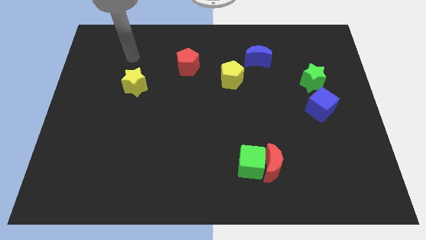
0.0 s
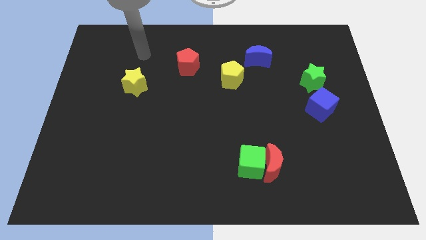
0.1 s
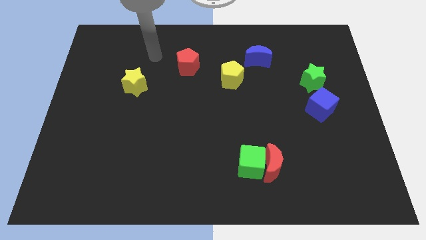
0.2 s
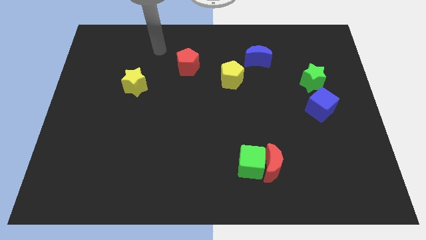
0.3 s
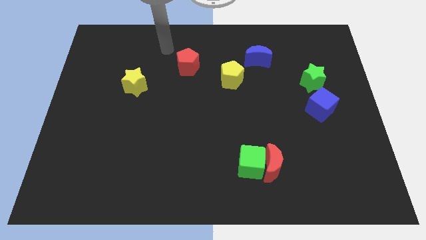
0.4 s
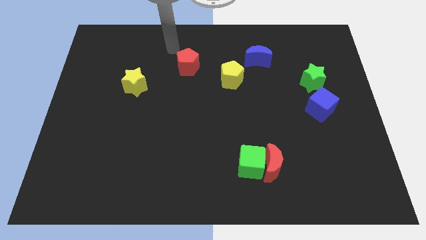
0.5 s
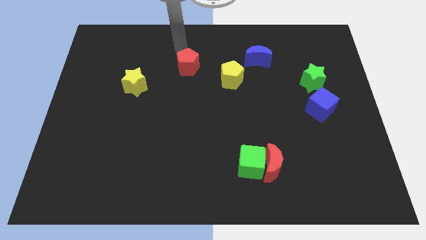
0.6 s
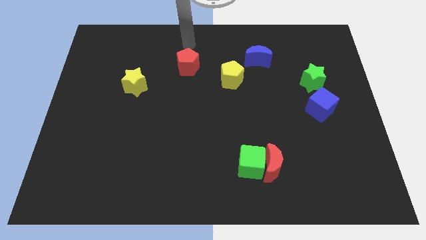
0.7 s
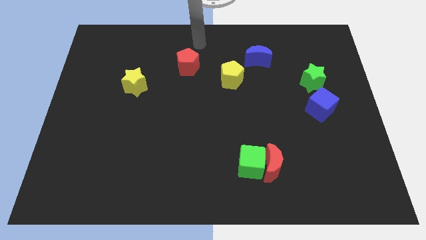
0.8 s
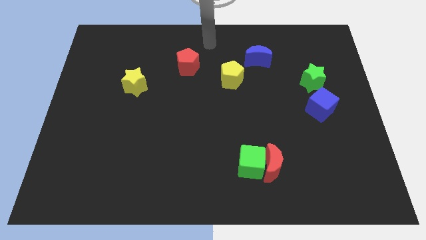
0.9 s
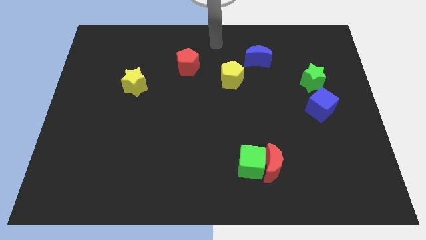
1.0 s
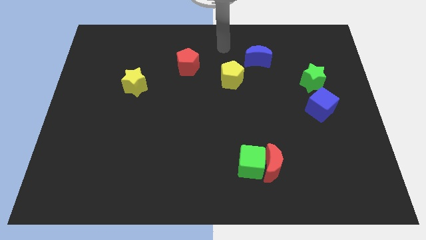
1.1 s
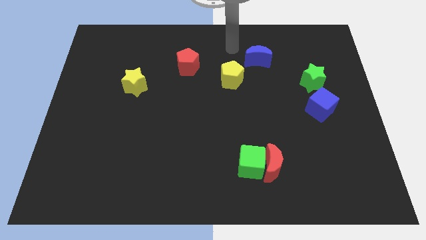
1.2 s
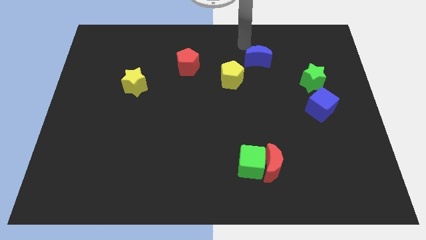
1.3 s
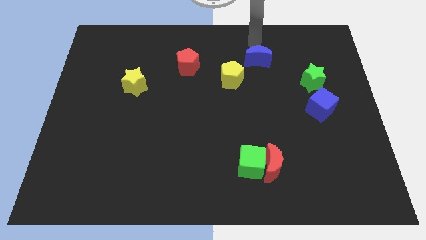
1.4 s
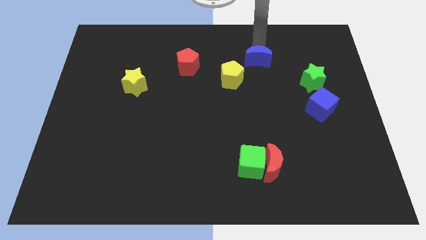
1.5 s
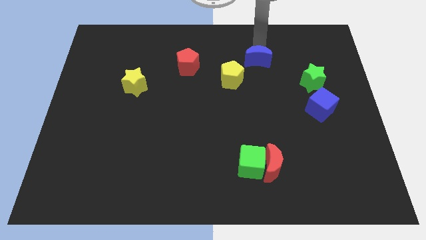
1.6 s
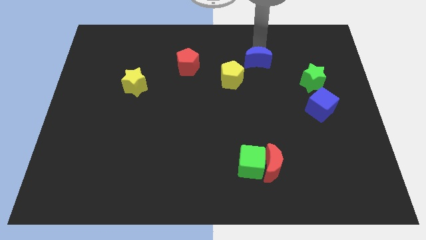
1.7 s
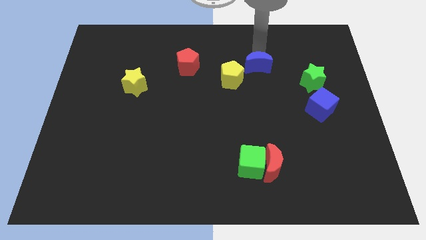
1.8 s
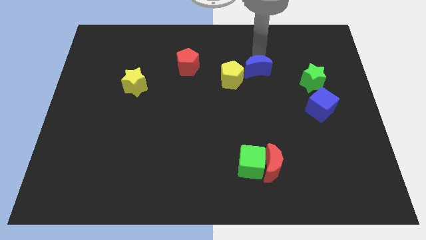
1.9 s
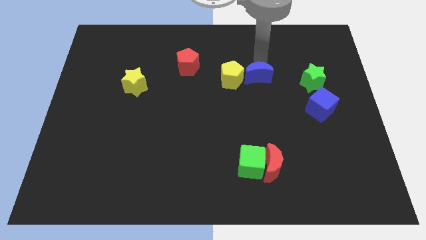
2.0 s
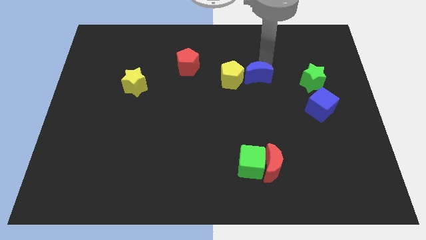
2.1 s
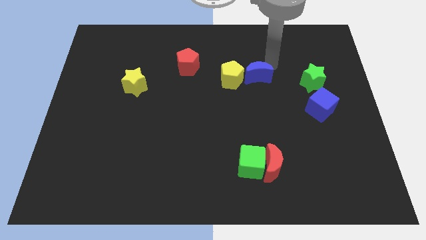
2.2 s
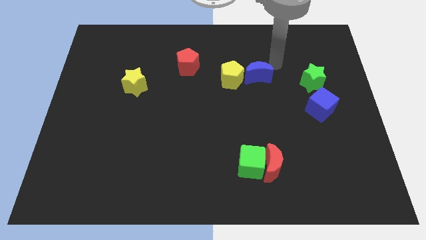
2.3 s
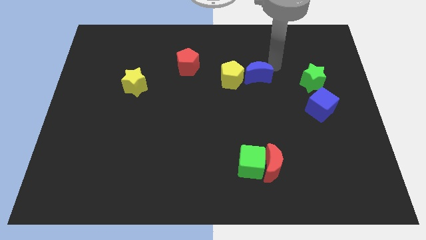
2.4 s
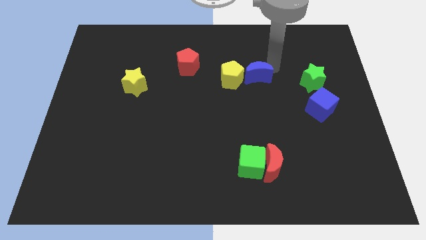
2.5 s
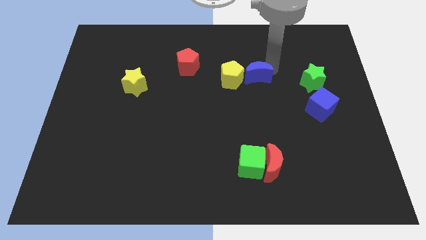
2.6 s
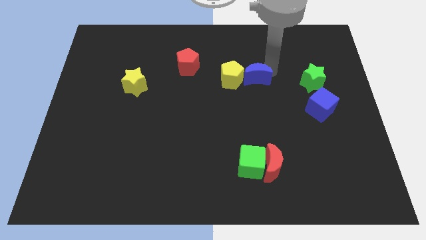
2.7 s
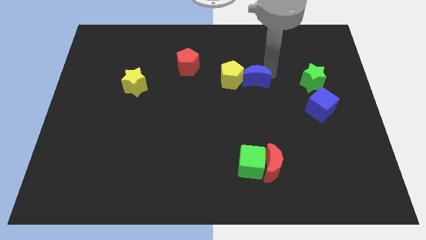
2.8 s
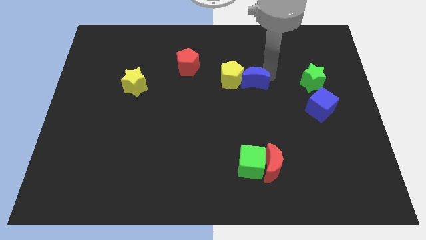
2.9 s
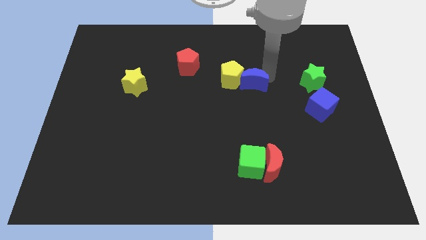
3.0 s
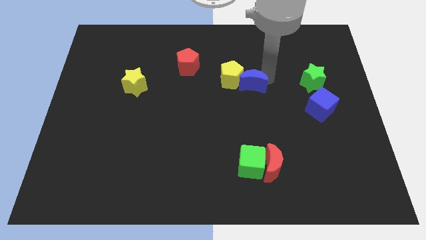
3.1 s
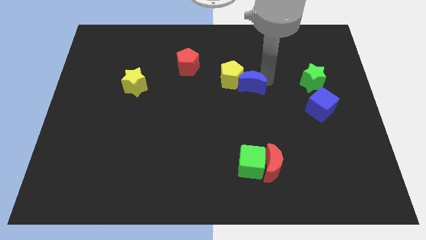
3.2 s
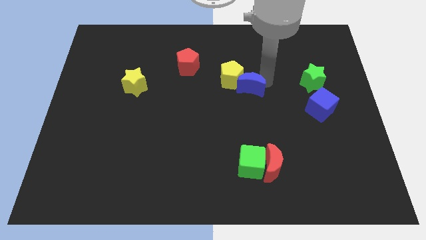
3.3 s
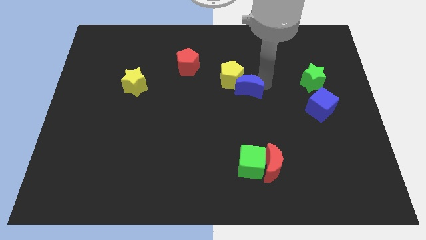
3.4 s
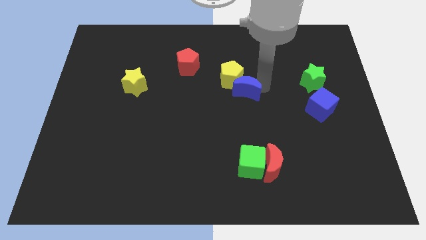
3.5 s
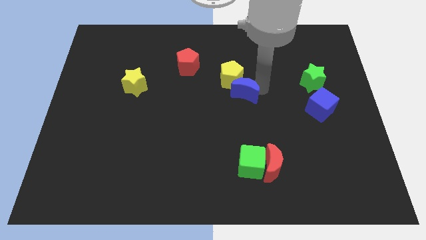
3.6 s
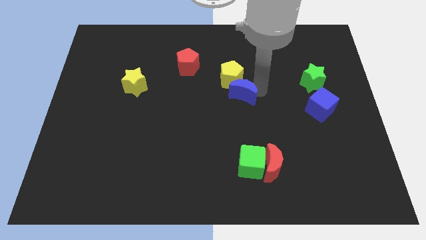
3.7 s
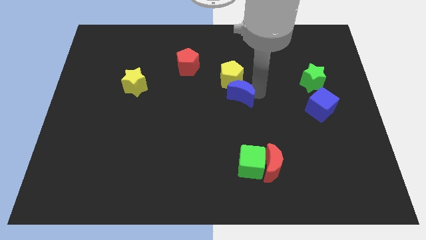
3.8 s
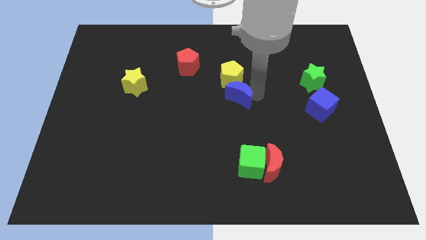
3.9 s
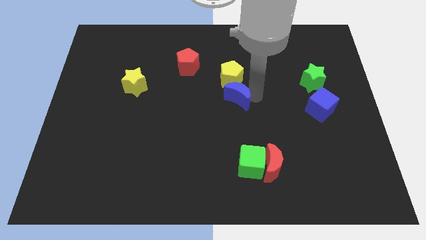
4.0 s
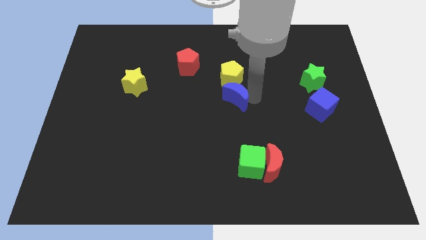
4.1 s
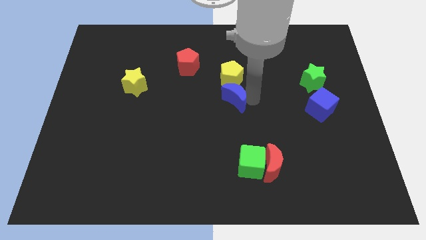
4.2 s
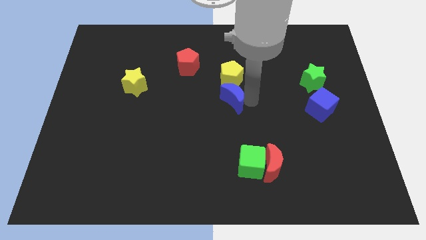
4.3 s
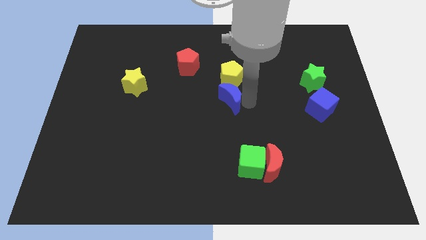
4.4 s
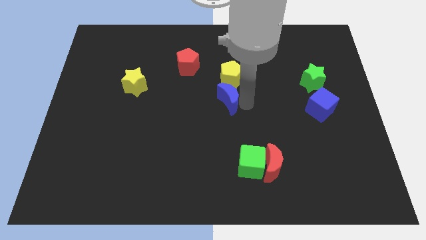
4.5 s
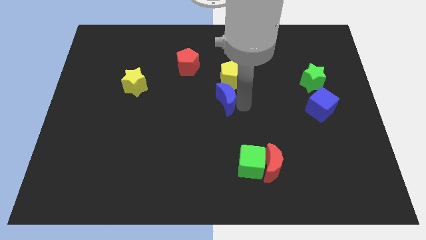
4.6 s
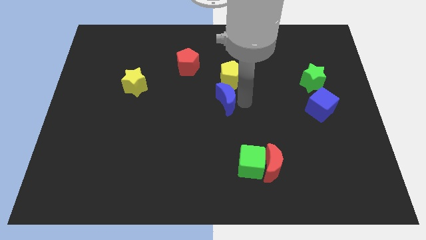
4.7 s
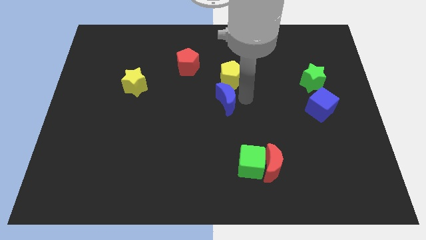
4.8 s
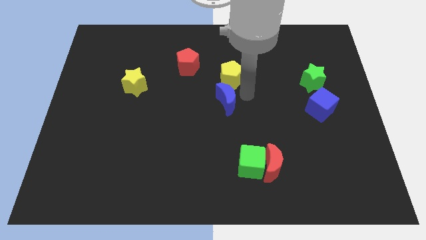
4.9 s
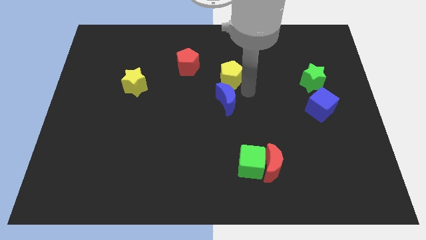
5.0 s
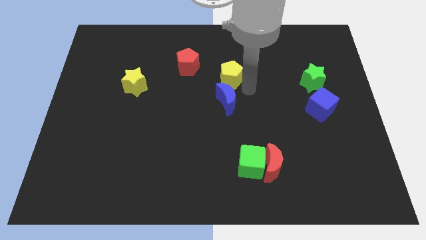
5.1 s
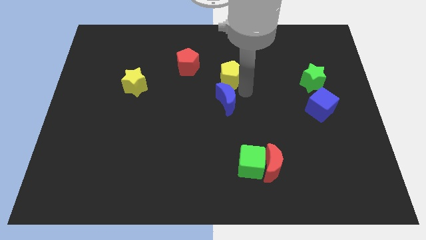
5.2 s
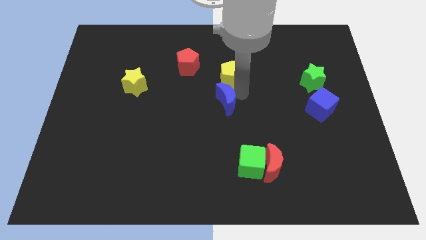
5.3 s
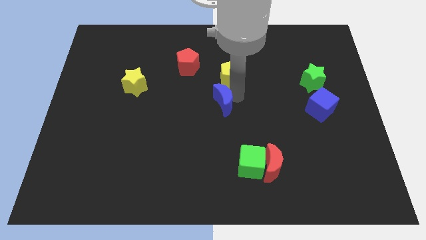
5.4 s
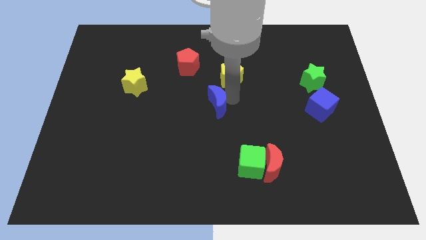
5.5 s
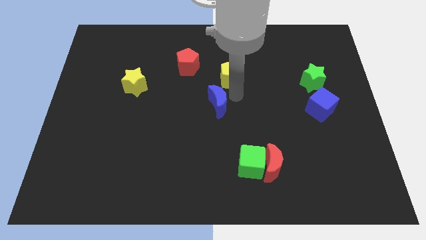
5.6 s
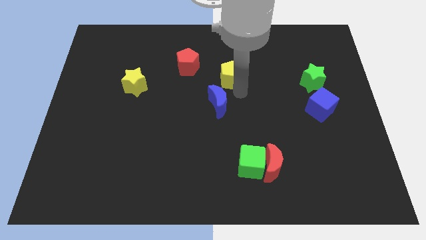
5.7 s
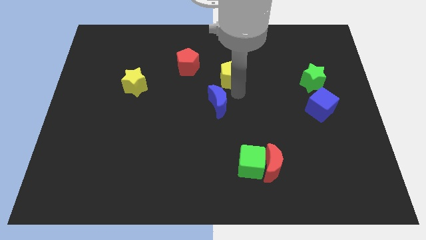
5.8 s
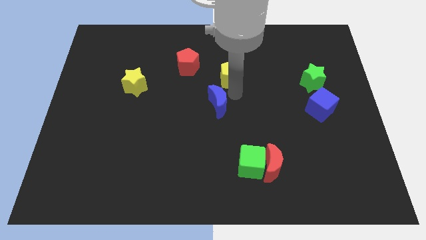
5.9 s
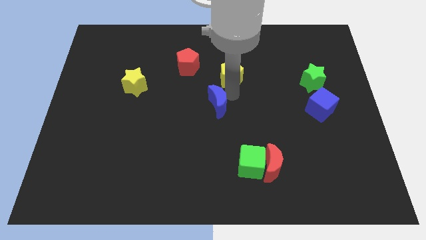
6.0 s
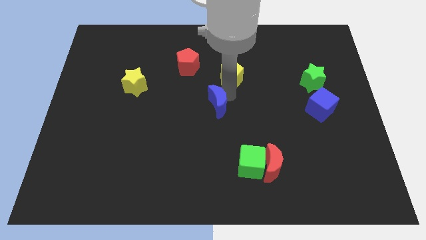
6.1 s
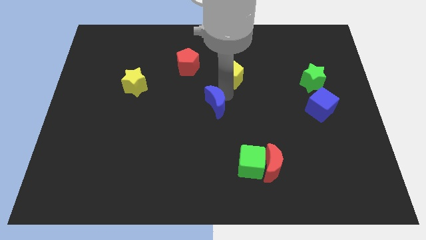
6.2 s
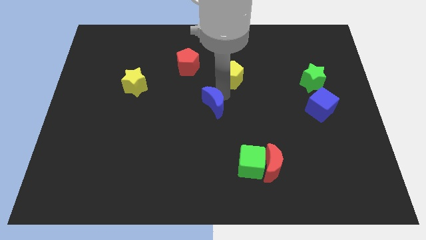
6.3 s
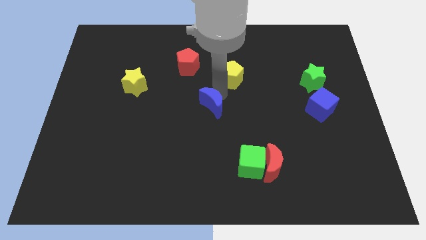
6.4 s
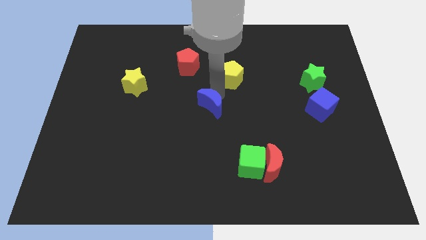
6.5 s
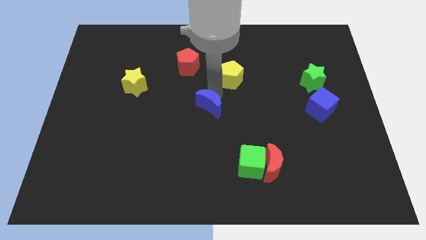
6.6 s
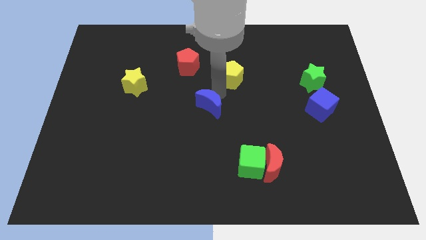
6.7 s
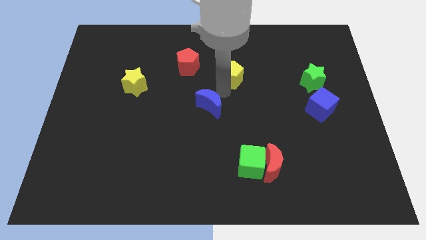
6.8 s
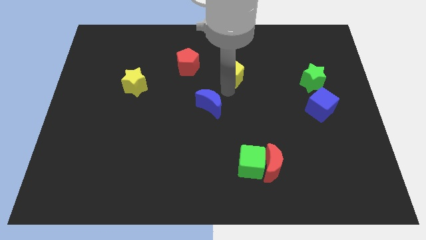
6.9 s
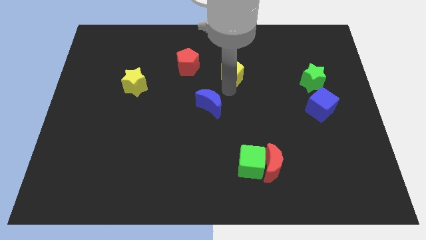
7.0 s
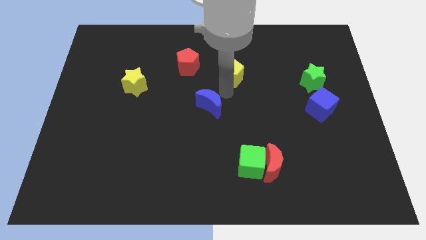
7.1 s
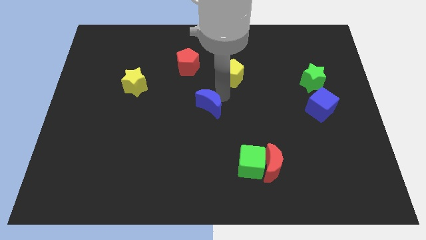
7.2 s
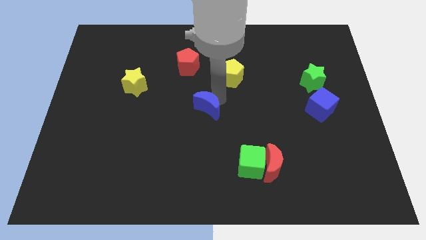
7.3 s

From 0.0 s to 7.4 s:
push the blue moon diagonally down and to the left

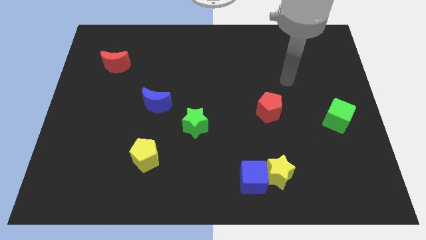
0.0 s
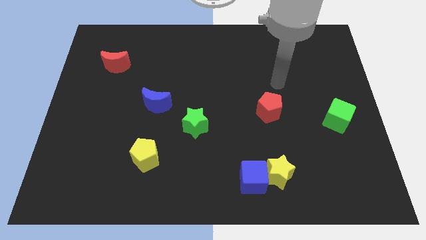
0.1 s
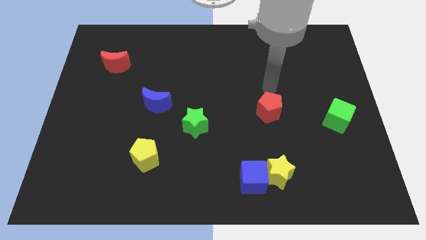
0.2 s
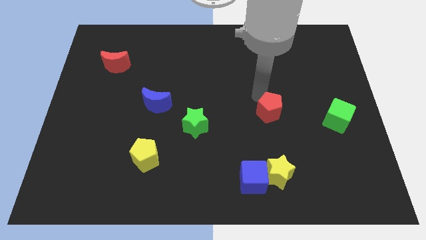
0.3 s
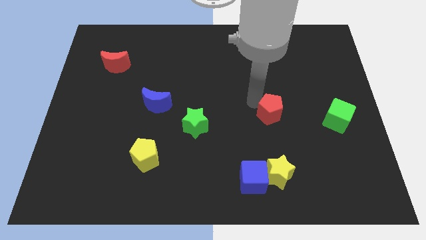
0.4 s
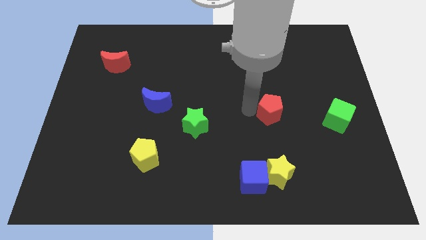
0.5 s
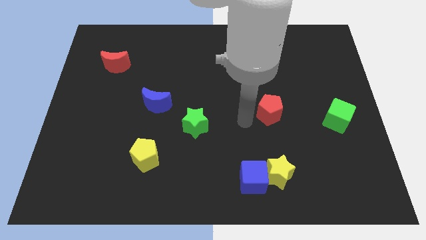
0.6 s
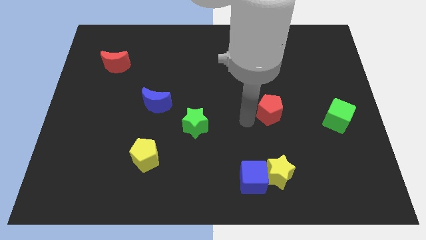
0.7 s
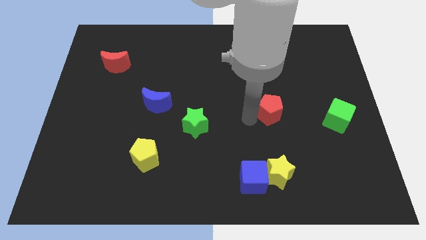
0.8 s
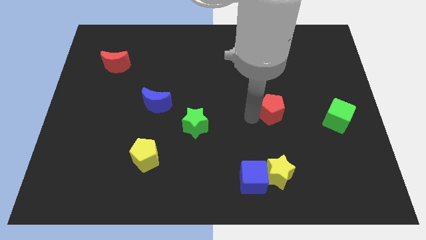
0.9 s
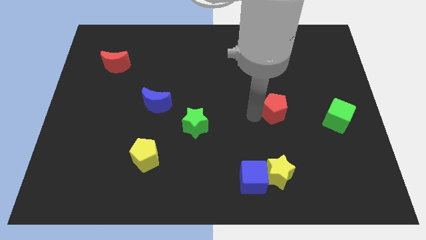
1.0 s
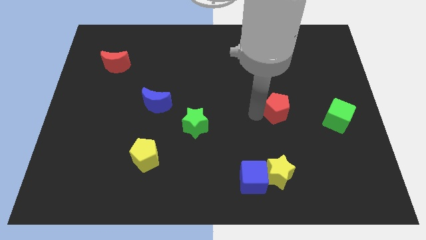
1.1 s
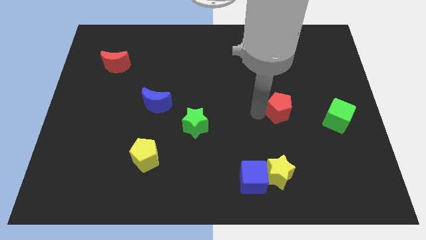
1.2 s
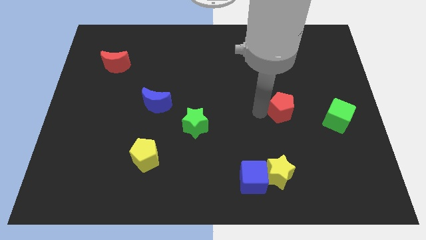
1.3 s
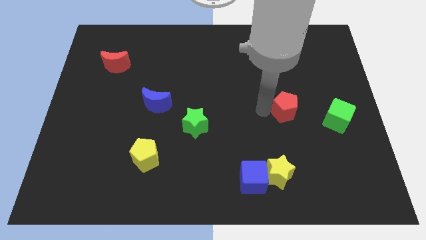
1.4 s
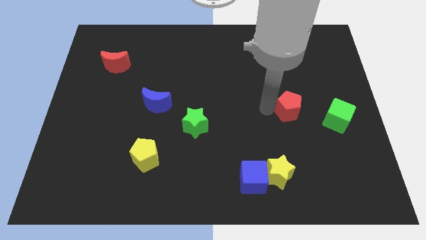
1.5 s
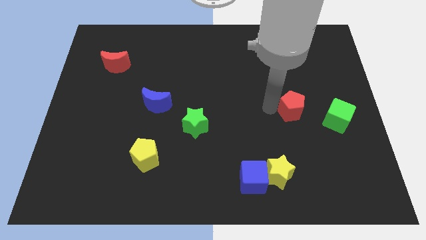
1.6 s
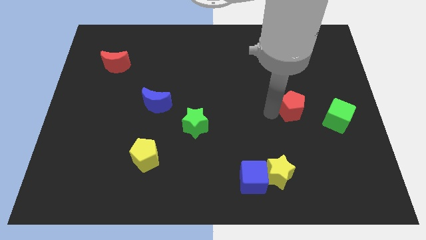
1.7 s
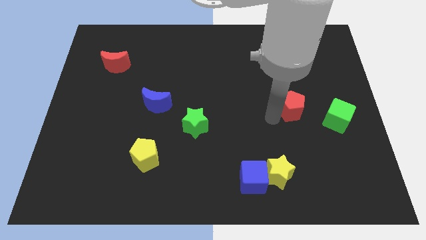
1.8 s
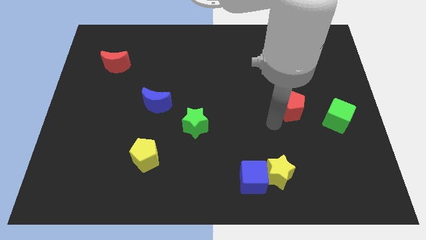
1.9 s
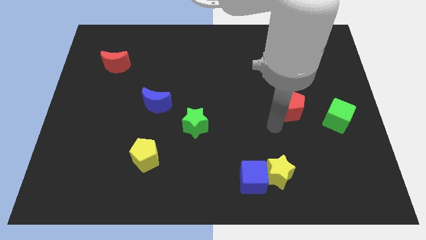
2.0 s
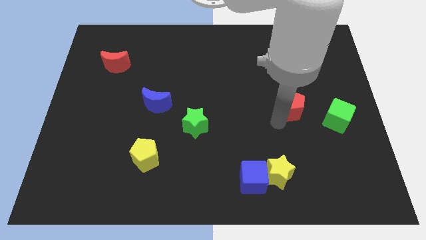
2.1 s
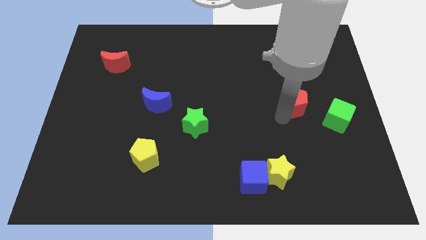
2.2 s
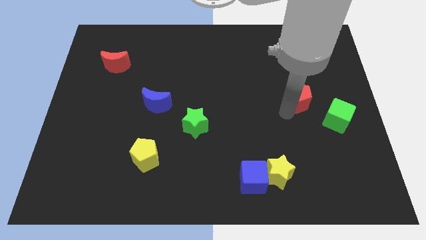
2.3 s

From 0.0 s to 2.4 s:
move the red pentagon slightly diagonally upwards and to the right
